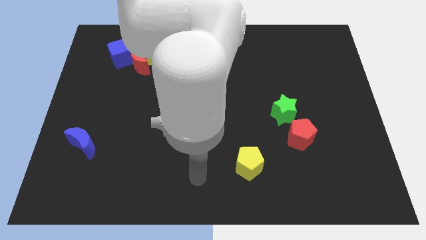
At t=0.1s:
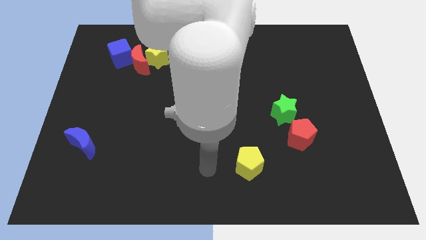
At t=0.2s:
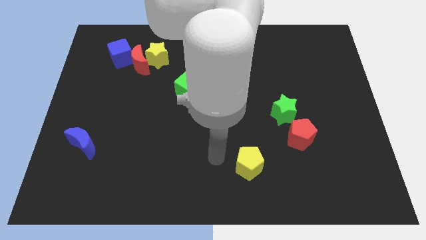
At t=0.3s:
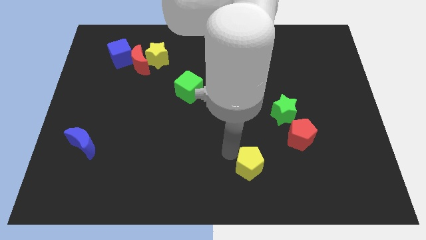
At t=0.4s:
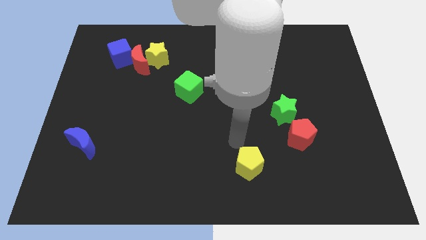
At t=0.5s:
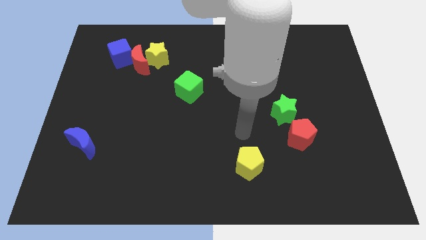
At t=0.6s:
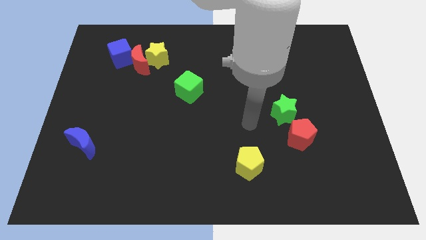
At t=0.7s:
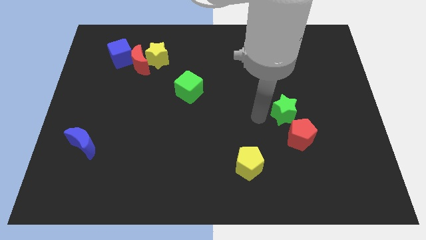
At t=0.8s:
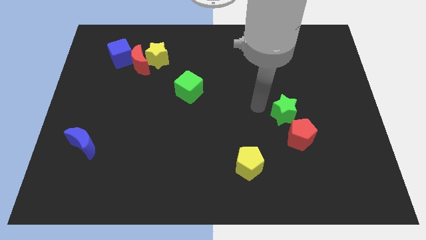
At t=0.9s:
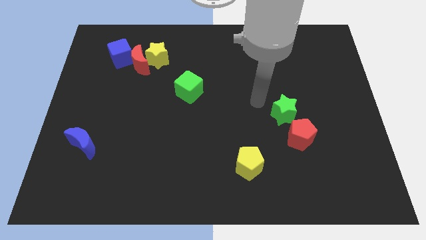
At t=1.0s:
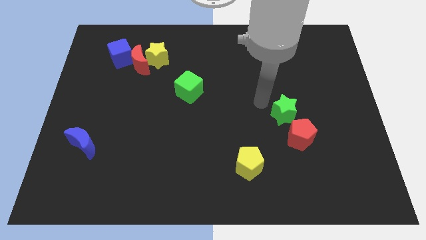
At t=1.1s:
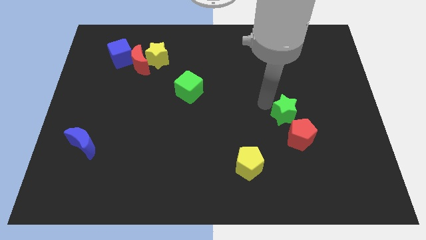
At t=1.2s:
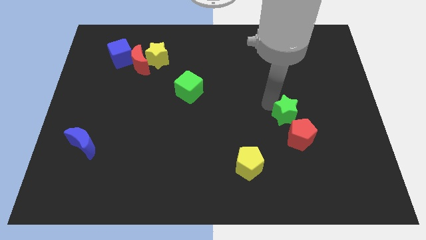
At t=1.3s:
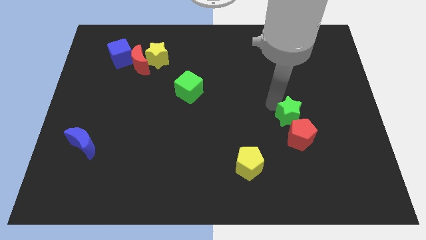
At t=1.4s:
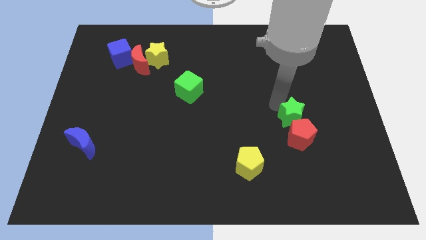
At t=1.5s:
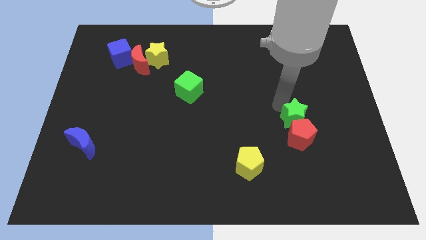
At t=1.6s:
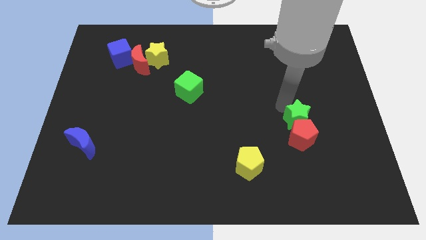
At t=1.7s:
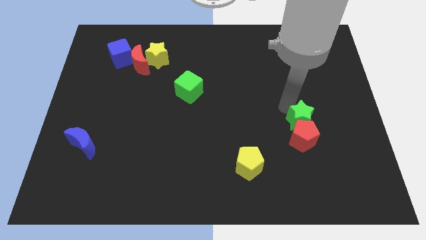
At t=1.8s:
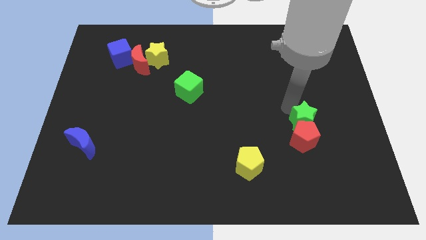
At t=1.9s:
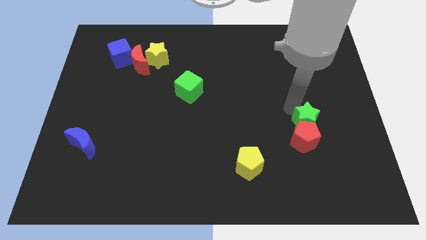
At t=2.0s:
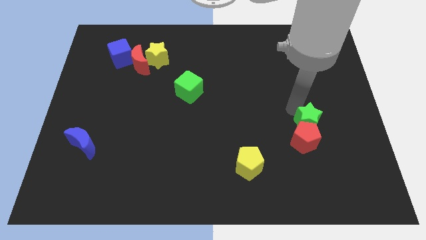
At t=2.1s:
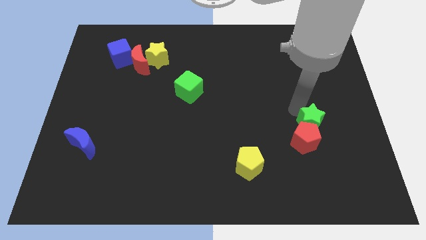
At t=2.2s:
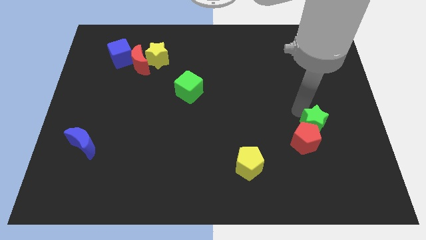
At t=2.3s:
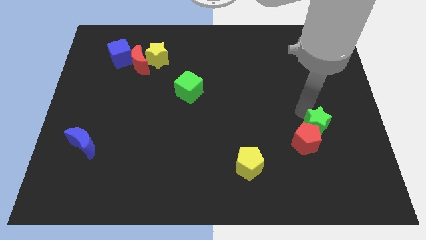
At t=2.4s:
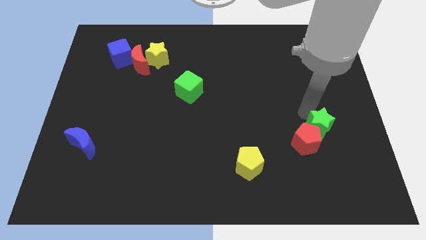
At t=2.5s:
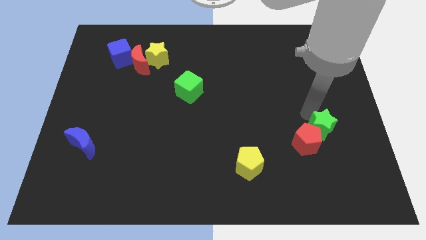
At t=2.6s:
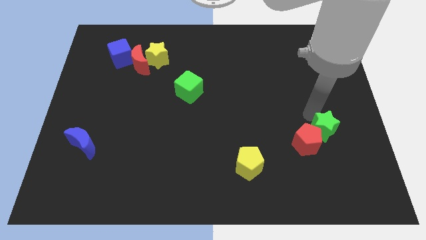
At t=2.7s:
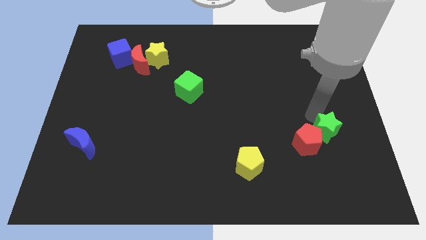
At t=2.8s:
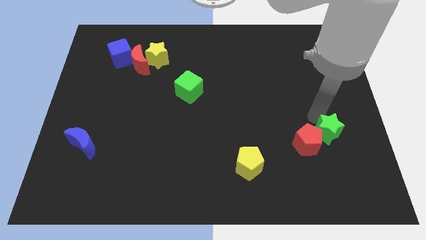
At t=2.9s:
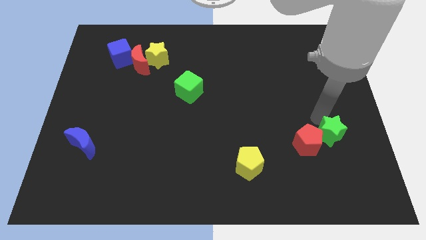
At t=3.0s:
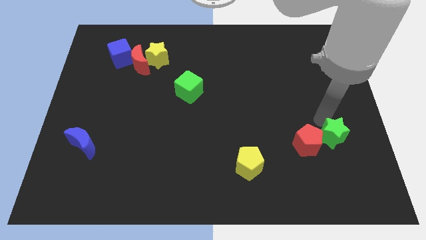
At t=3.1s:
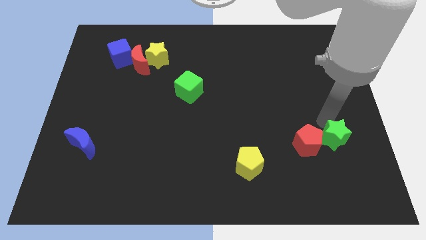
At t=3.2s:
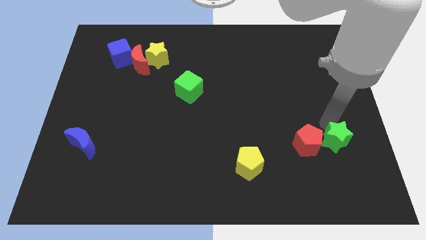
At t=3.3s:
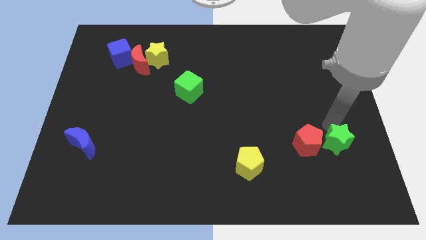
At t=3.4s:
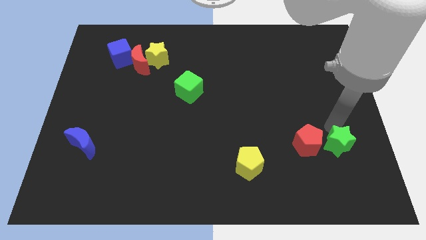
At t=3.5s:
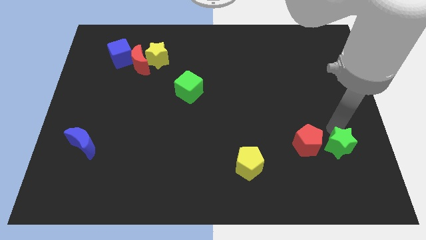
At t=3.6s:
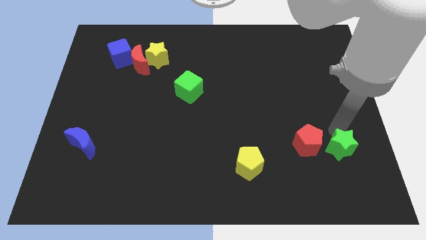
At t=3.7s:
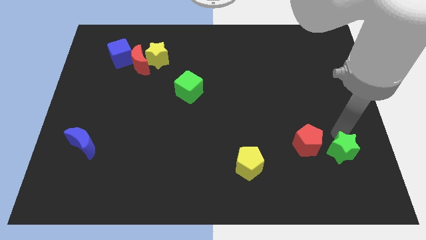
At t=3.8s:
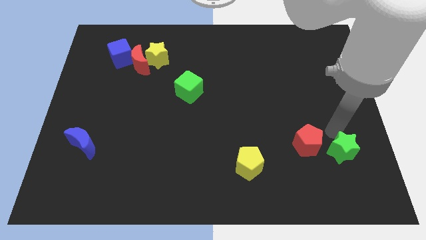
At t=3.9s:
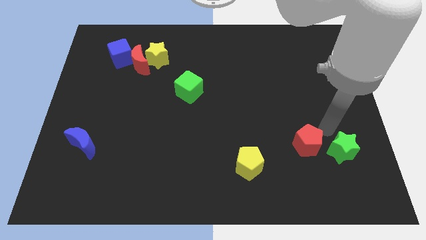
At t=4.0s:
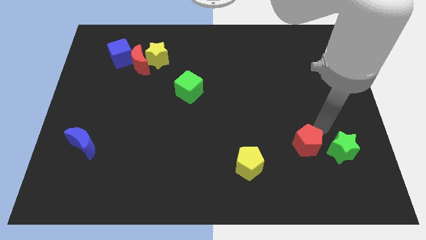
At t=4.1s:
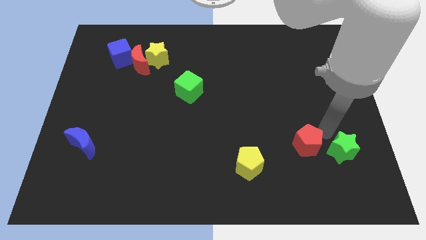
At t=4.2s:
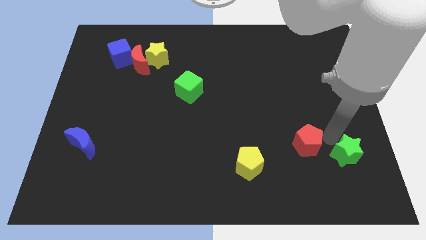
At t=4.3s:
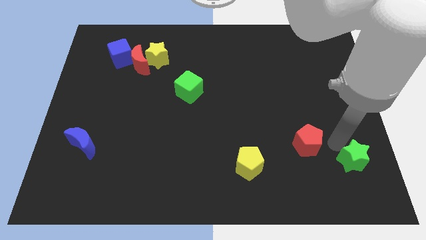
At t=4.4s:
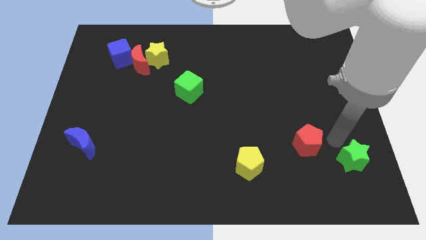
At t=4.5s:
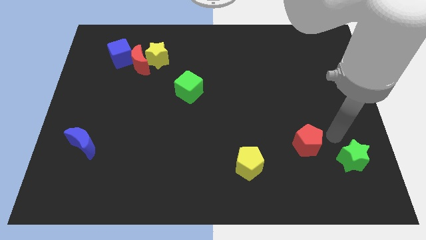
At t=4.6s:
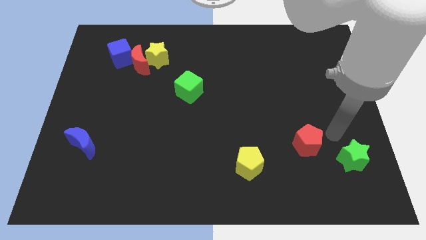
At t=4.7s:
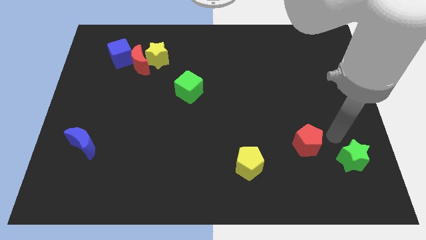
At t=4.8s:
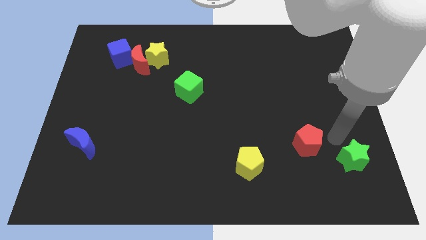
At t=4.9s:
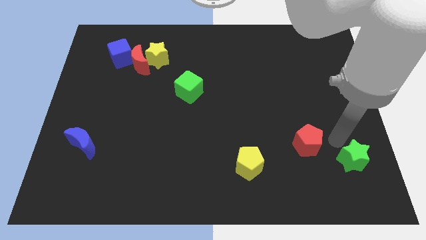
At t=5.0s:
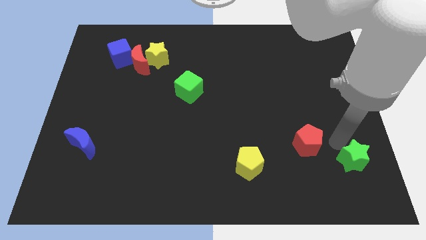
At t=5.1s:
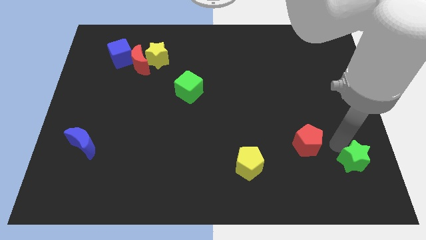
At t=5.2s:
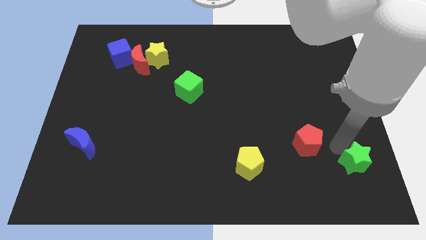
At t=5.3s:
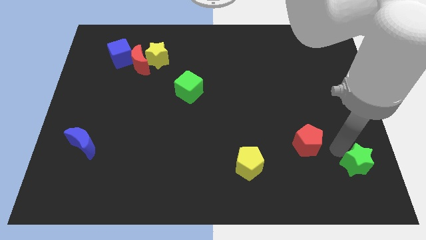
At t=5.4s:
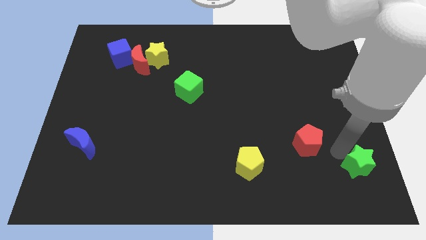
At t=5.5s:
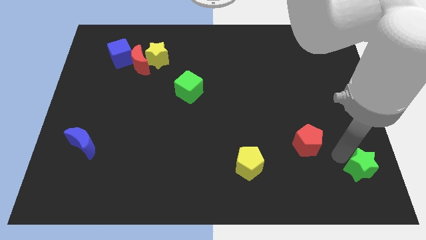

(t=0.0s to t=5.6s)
put the green star to the bottom right corner

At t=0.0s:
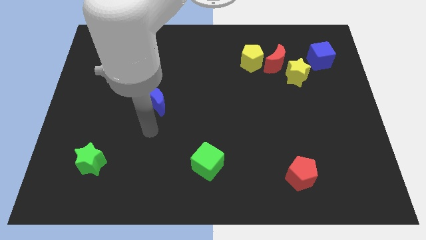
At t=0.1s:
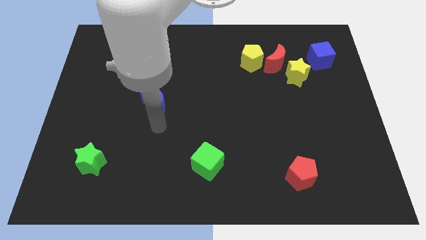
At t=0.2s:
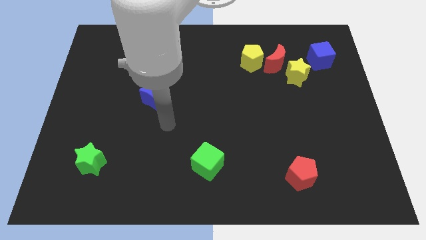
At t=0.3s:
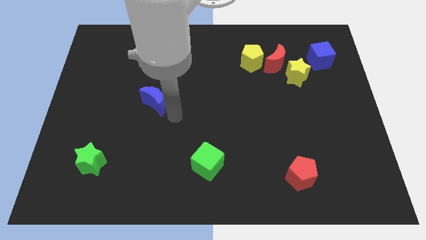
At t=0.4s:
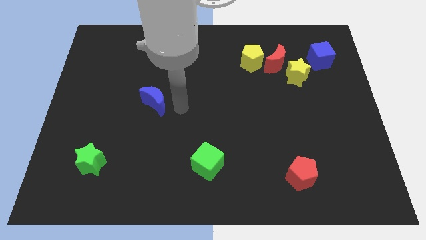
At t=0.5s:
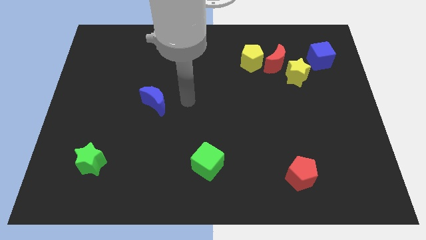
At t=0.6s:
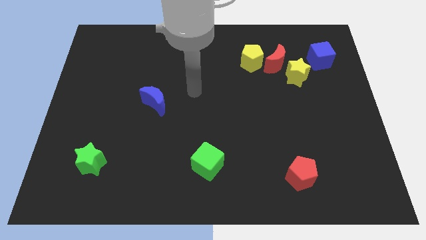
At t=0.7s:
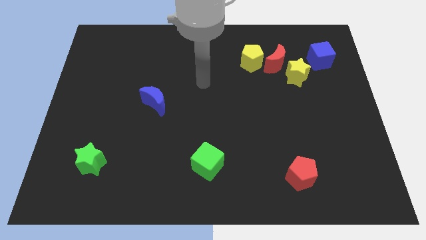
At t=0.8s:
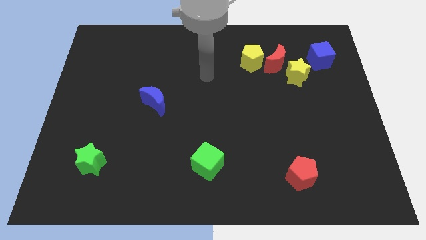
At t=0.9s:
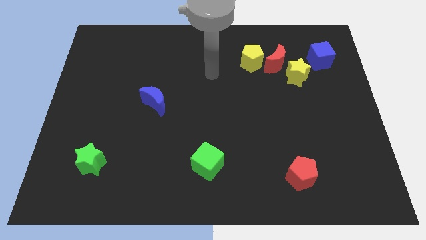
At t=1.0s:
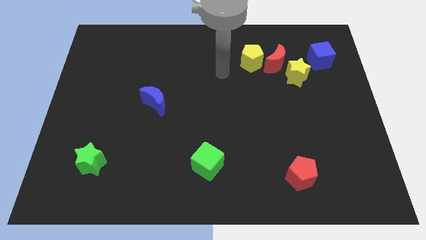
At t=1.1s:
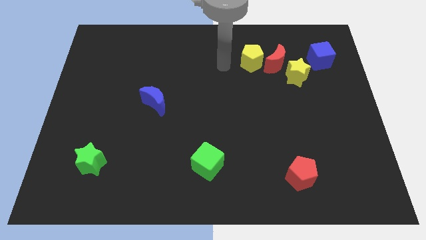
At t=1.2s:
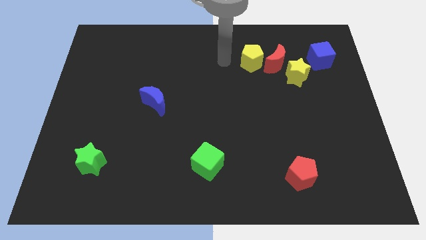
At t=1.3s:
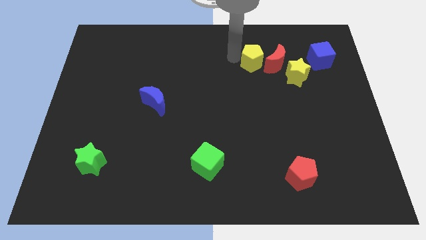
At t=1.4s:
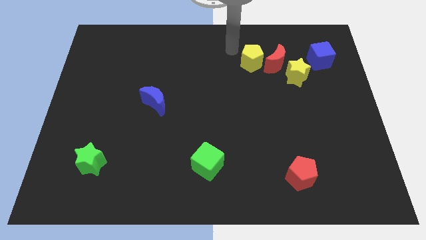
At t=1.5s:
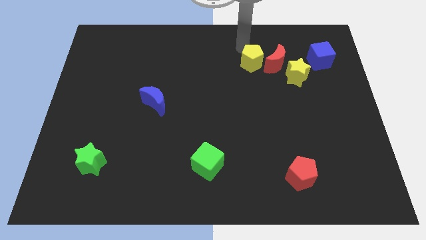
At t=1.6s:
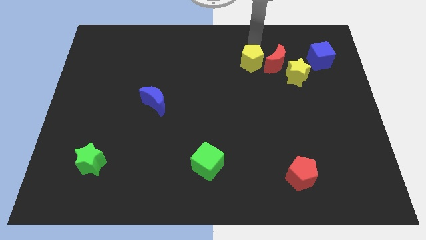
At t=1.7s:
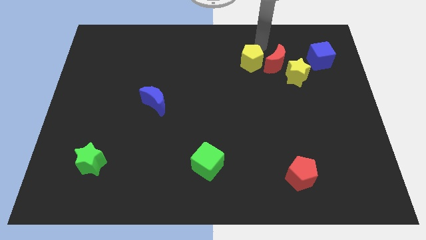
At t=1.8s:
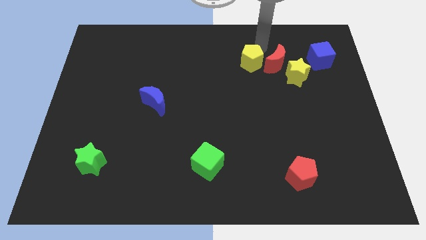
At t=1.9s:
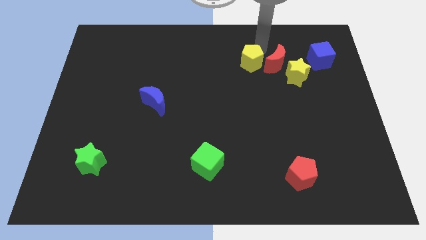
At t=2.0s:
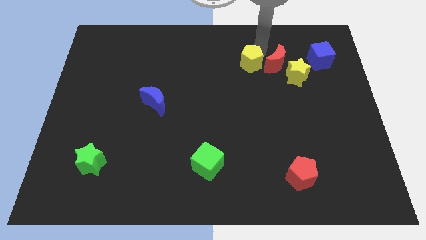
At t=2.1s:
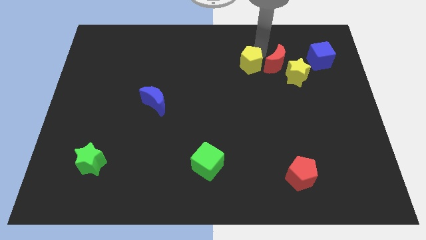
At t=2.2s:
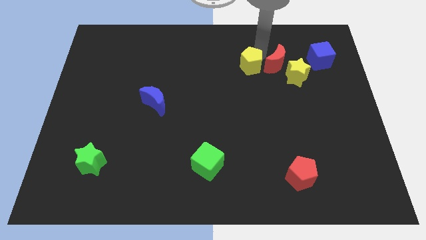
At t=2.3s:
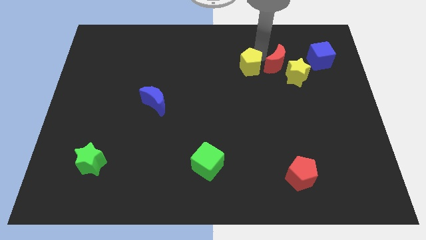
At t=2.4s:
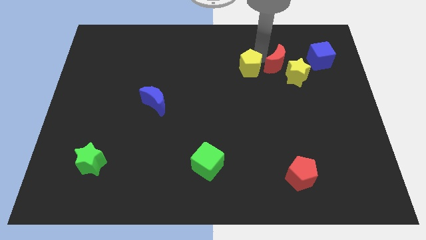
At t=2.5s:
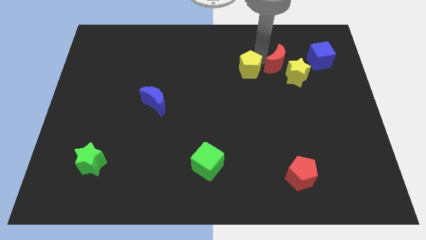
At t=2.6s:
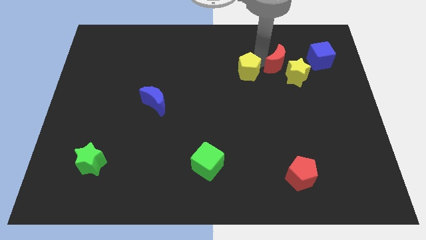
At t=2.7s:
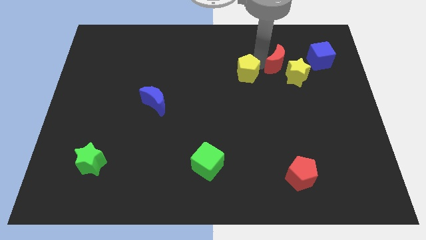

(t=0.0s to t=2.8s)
move the yellow pentagon to the middle of the board
